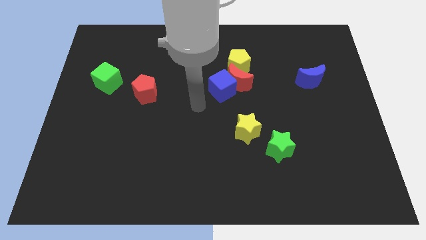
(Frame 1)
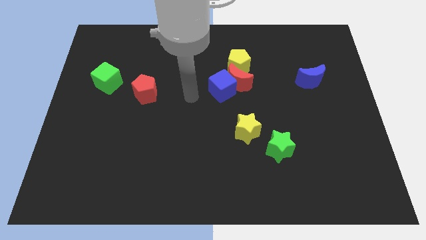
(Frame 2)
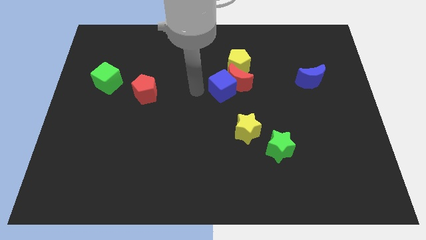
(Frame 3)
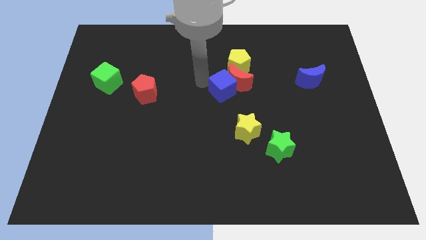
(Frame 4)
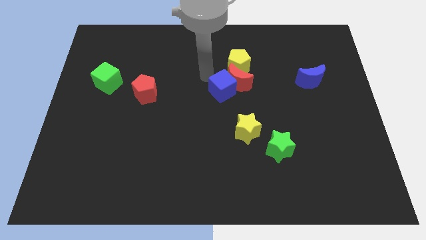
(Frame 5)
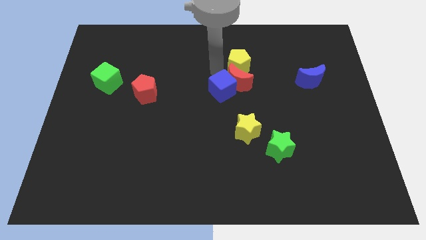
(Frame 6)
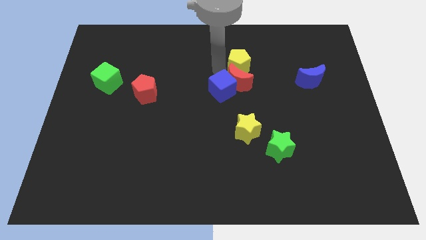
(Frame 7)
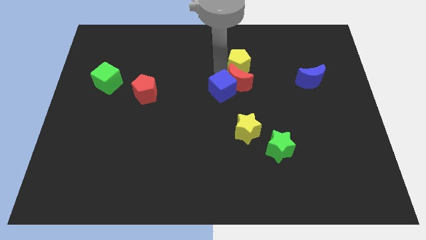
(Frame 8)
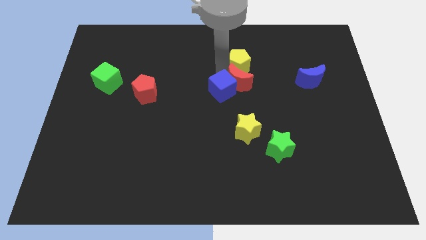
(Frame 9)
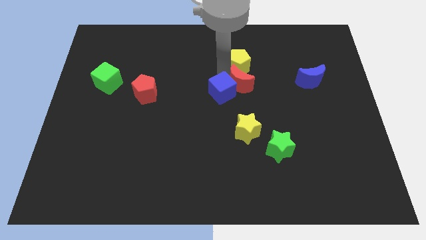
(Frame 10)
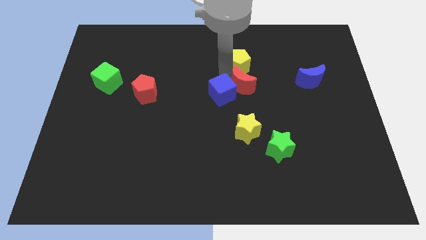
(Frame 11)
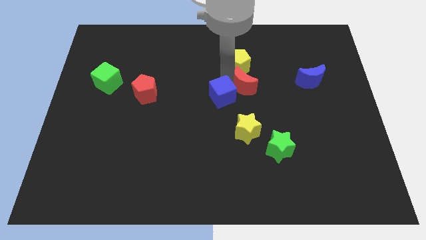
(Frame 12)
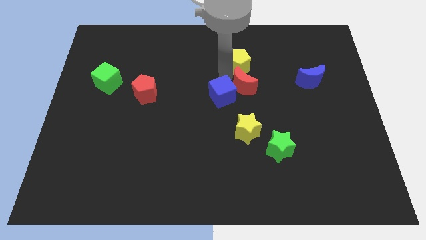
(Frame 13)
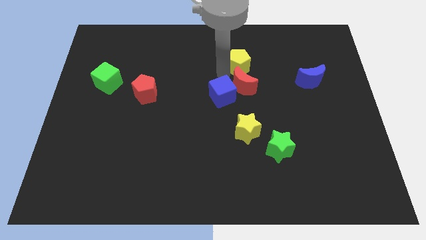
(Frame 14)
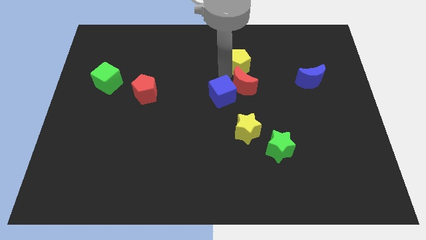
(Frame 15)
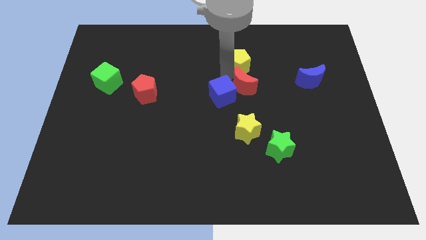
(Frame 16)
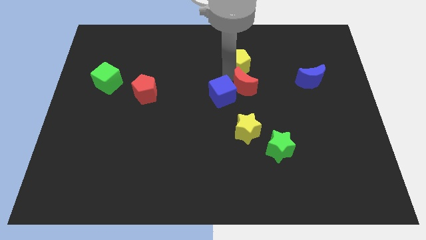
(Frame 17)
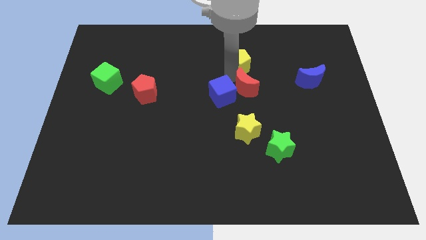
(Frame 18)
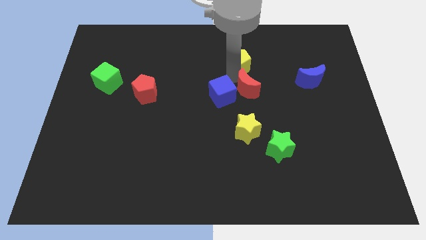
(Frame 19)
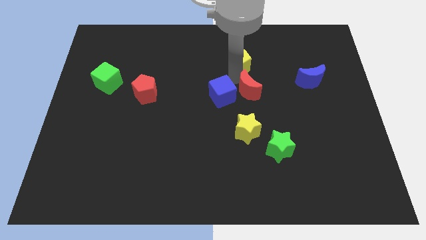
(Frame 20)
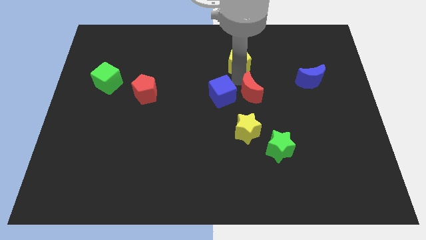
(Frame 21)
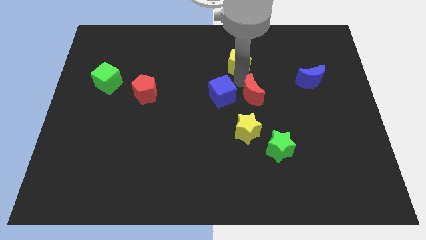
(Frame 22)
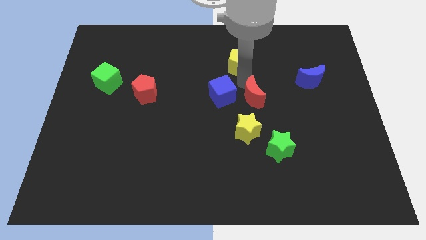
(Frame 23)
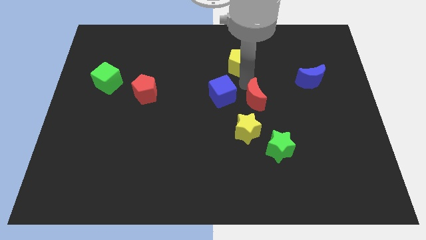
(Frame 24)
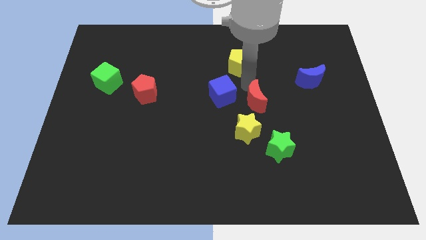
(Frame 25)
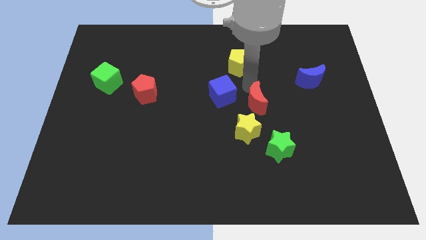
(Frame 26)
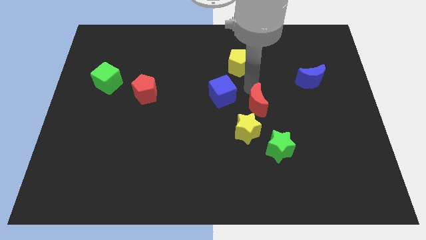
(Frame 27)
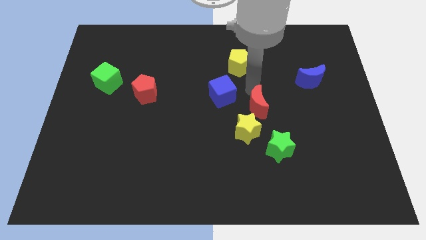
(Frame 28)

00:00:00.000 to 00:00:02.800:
move the red moon away from the blue cube and yellow pentagon

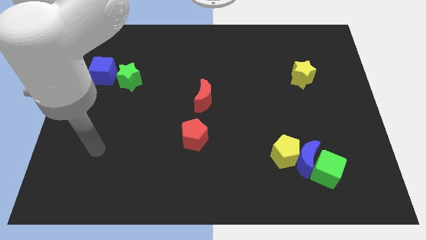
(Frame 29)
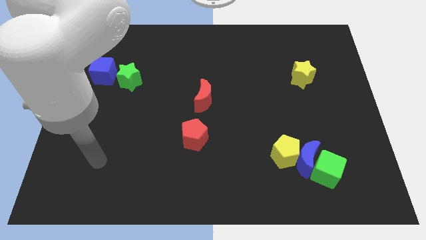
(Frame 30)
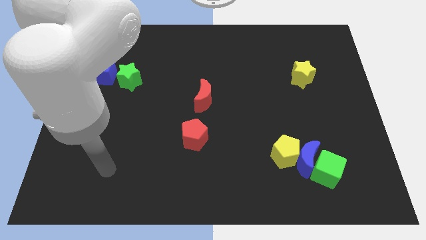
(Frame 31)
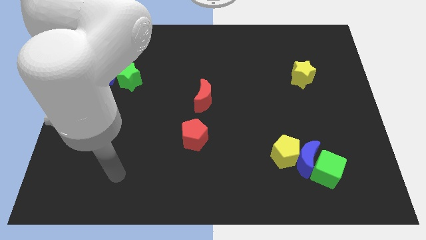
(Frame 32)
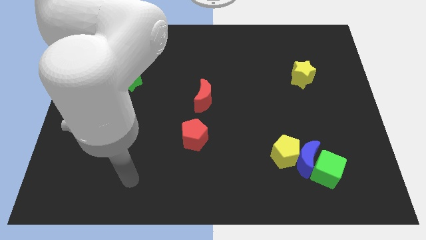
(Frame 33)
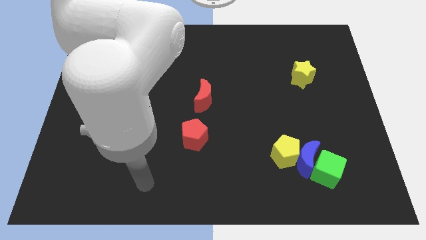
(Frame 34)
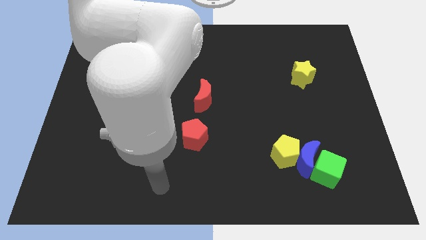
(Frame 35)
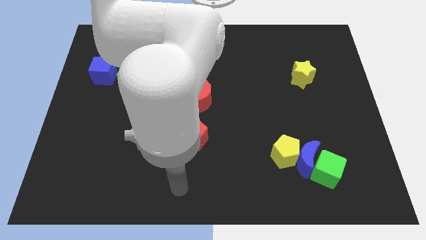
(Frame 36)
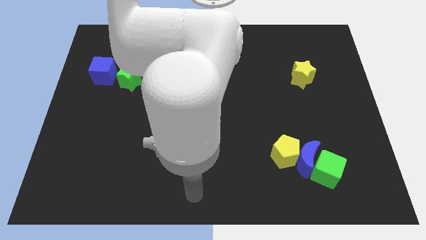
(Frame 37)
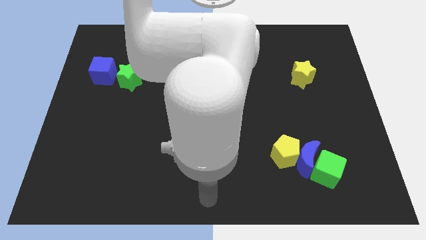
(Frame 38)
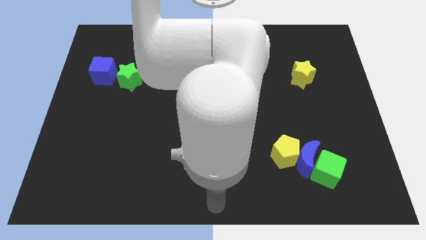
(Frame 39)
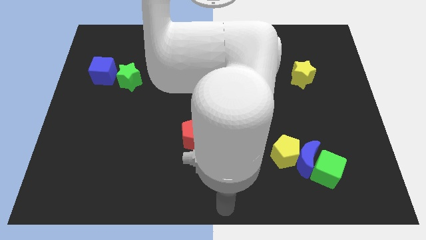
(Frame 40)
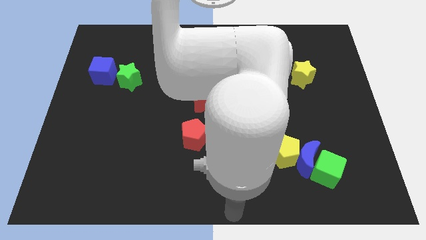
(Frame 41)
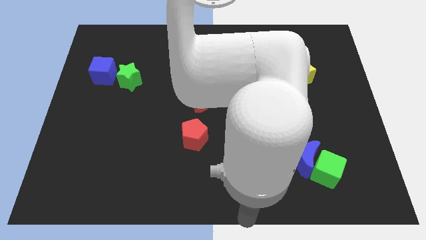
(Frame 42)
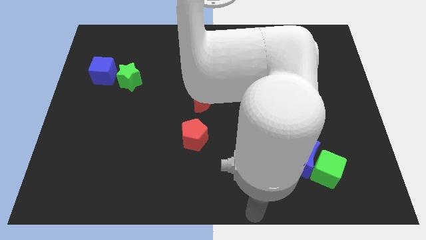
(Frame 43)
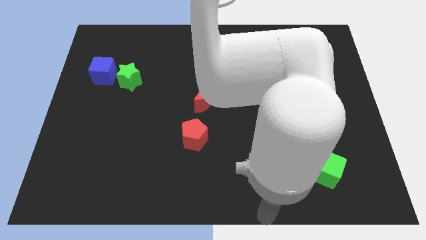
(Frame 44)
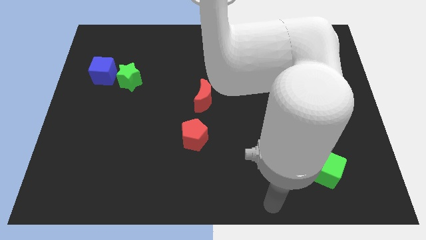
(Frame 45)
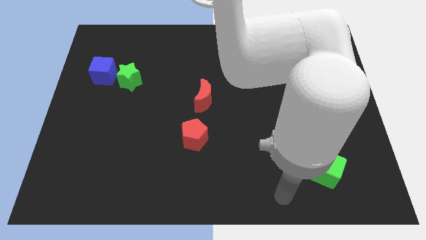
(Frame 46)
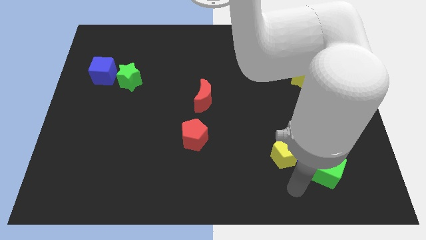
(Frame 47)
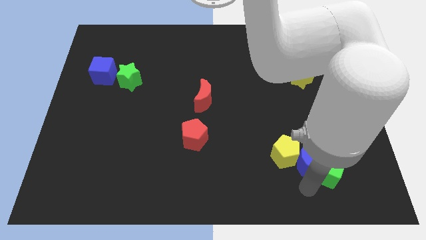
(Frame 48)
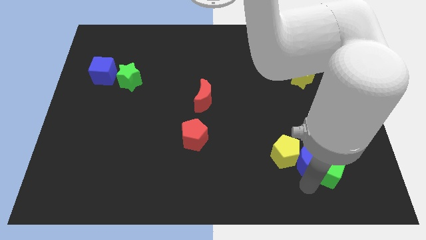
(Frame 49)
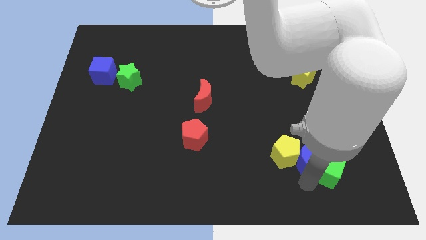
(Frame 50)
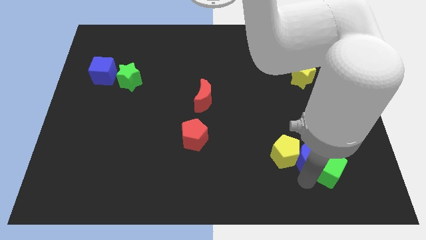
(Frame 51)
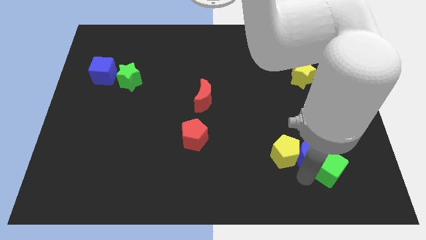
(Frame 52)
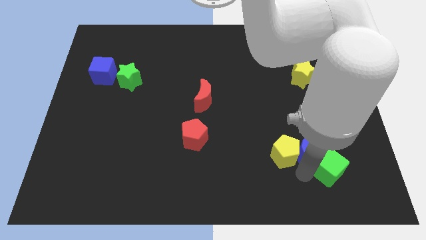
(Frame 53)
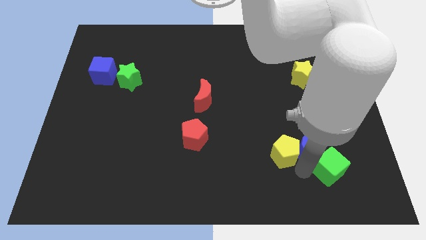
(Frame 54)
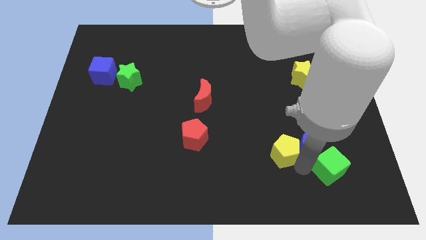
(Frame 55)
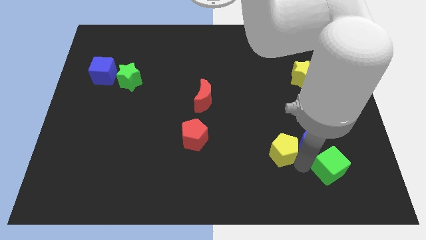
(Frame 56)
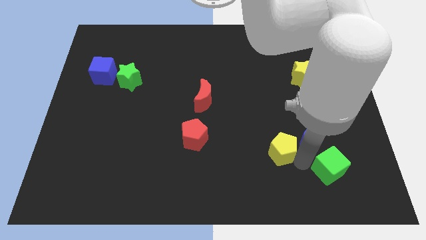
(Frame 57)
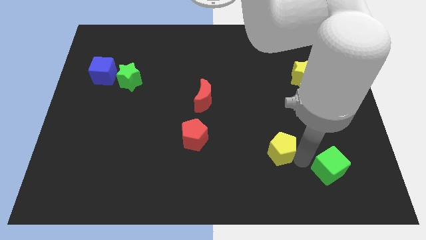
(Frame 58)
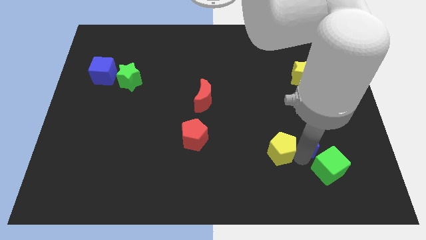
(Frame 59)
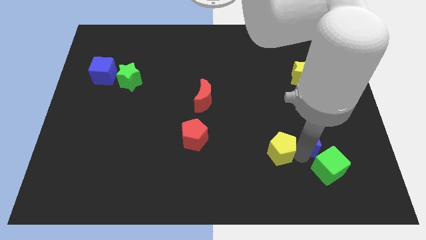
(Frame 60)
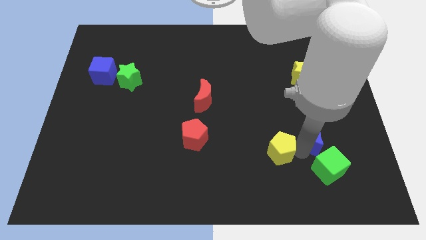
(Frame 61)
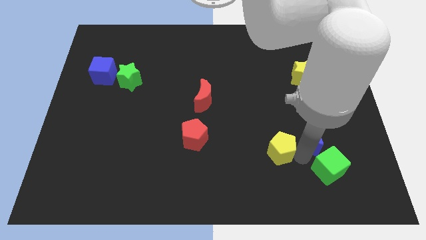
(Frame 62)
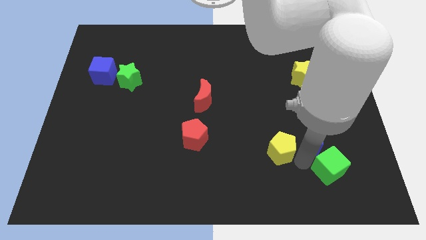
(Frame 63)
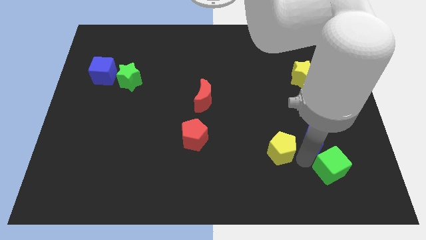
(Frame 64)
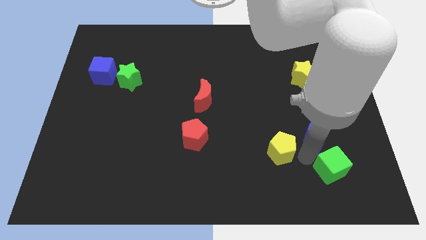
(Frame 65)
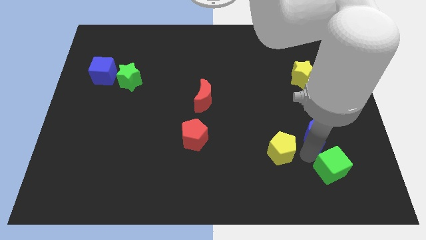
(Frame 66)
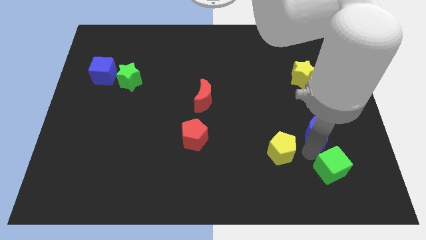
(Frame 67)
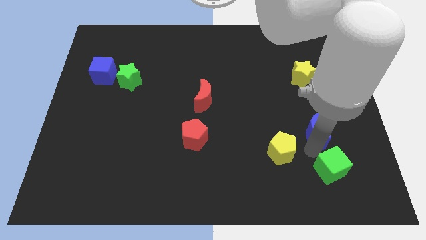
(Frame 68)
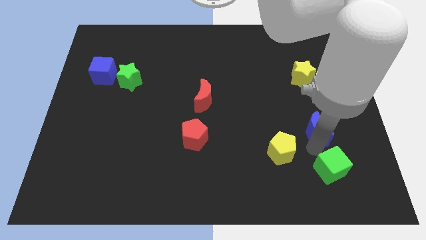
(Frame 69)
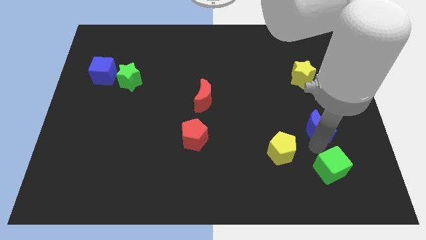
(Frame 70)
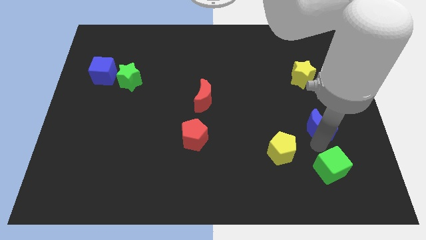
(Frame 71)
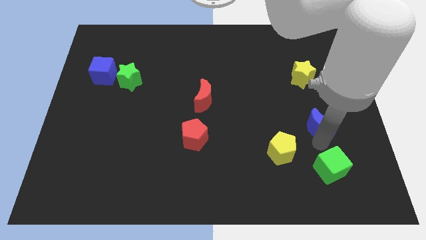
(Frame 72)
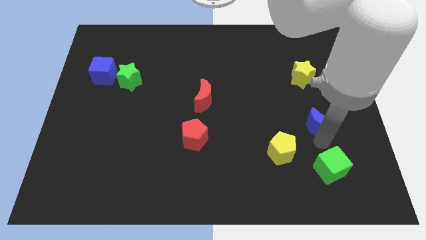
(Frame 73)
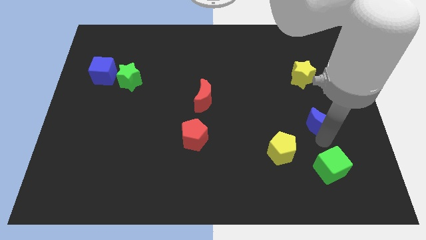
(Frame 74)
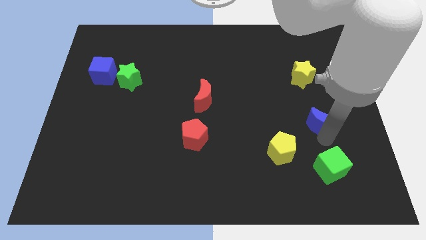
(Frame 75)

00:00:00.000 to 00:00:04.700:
pull the blue moon apart from the yellow pentagon and green cube

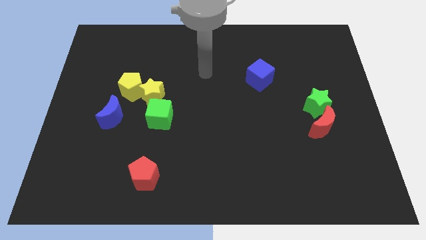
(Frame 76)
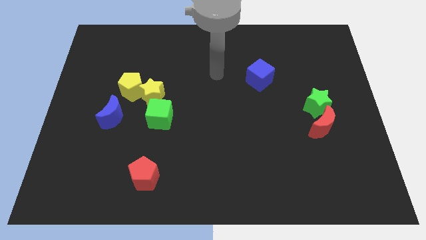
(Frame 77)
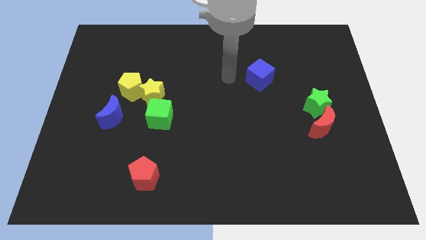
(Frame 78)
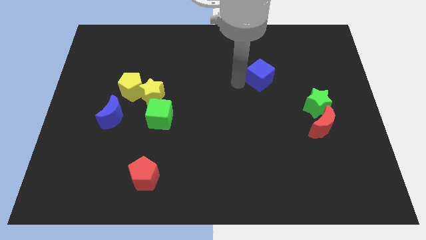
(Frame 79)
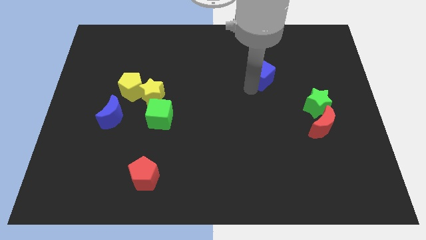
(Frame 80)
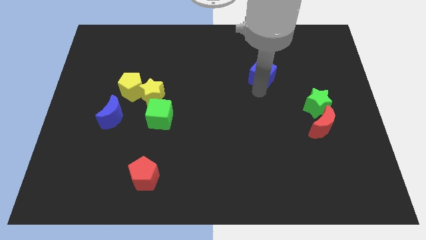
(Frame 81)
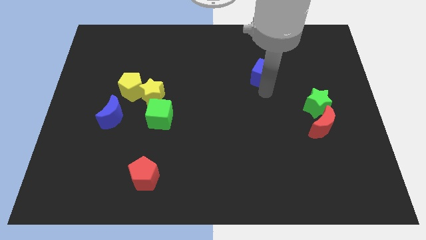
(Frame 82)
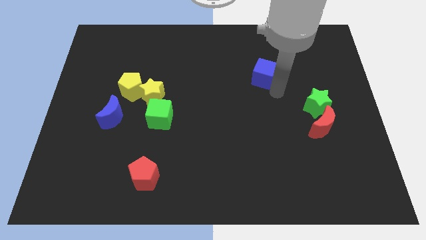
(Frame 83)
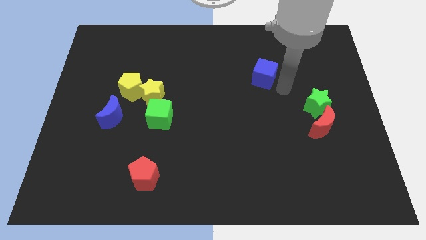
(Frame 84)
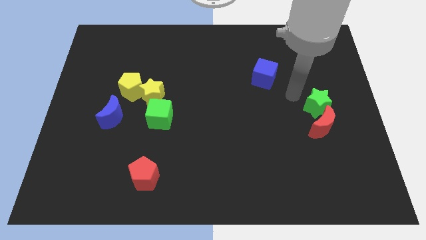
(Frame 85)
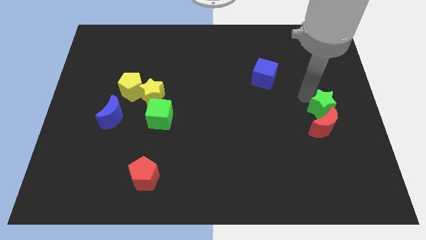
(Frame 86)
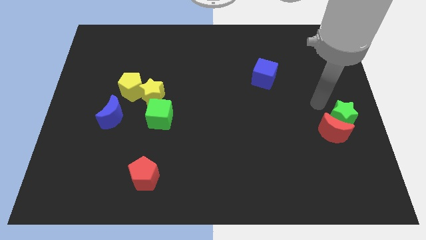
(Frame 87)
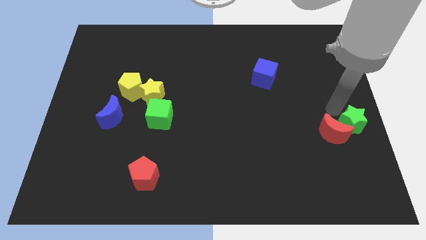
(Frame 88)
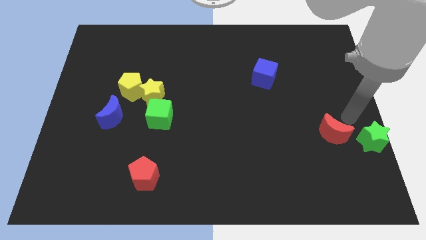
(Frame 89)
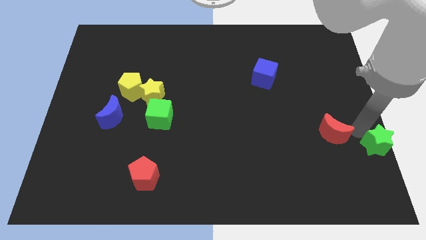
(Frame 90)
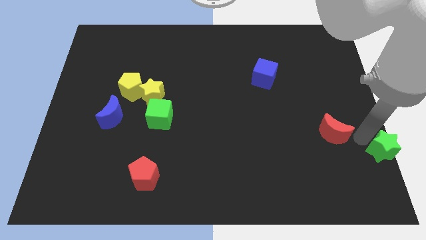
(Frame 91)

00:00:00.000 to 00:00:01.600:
separate the red moon from the green star

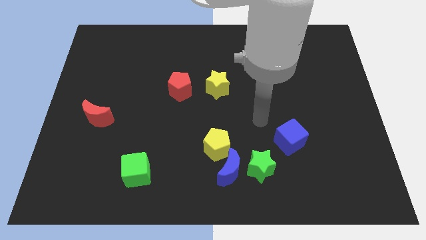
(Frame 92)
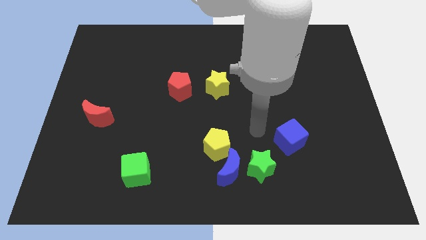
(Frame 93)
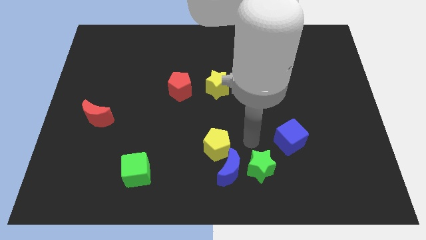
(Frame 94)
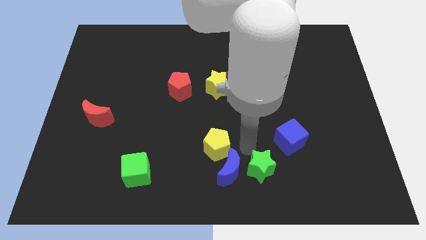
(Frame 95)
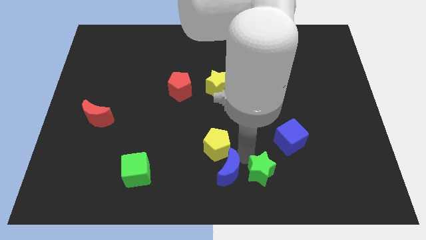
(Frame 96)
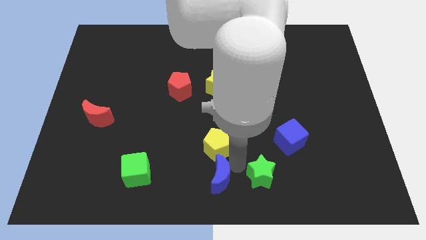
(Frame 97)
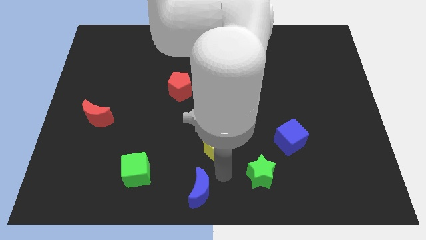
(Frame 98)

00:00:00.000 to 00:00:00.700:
pull the yellow pentagon apart from the blue moon
